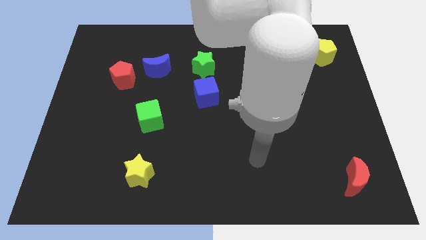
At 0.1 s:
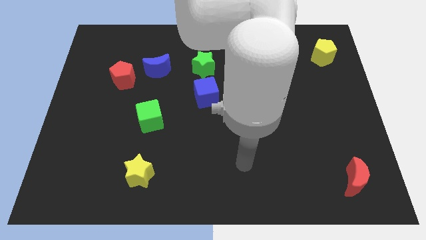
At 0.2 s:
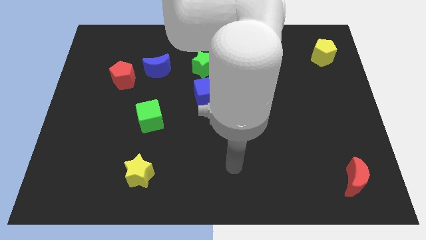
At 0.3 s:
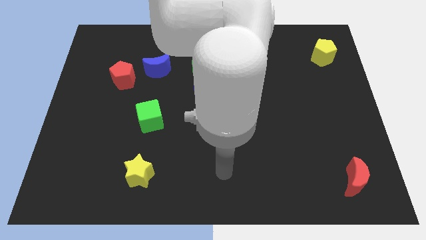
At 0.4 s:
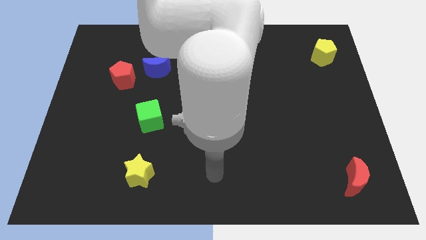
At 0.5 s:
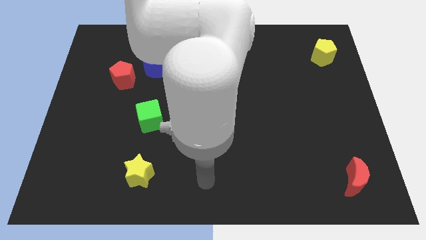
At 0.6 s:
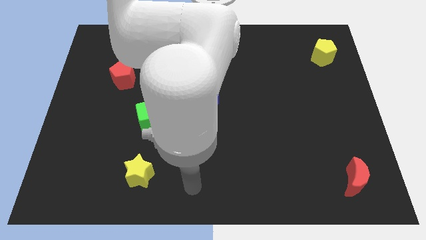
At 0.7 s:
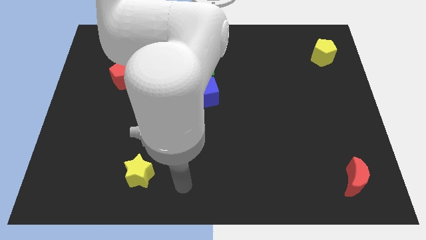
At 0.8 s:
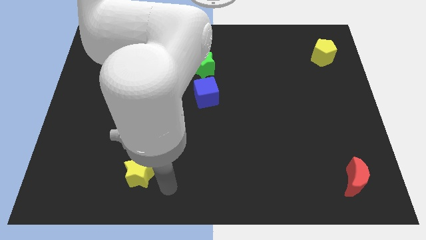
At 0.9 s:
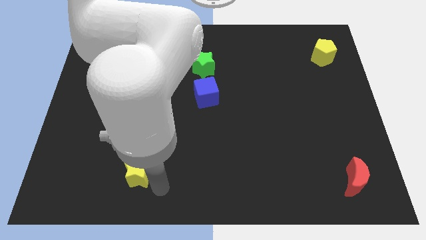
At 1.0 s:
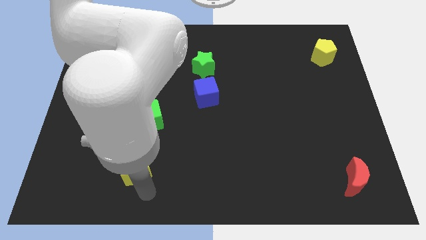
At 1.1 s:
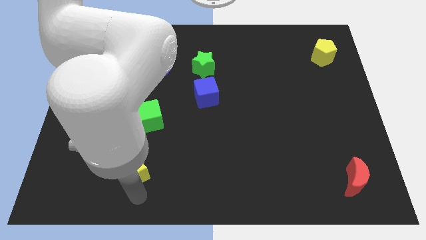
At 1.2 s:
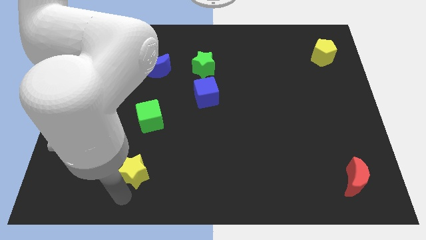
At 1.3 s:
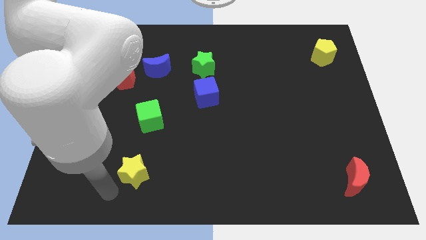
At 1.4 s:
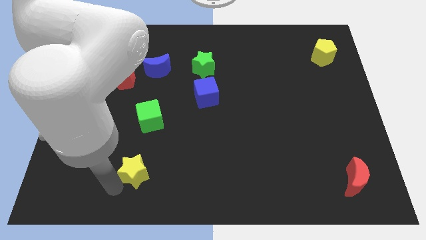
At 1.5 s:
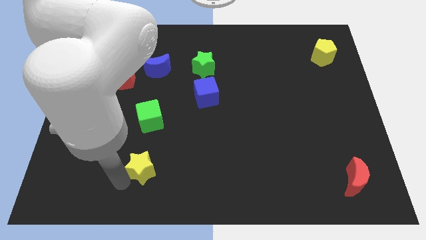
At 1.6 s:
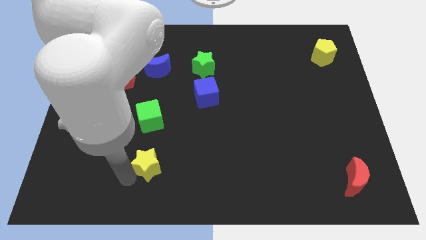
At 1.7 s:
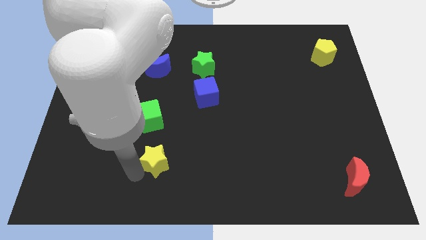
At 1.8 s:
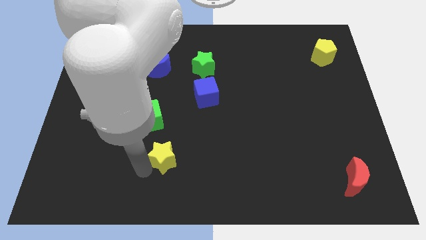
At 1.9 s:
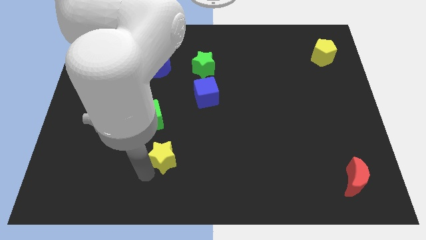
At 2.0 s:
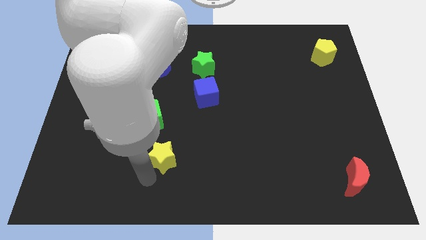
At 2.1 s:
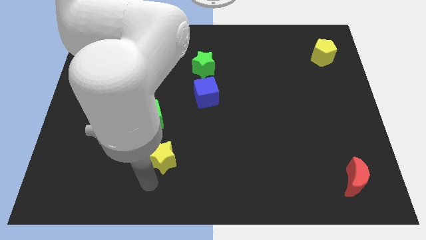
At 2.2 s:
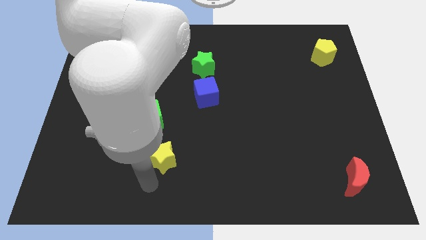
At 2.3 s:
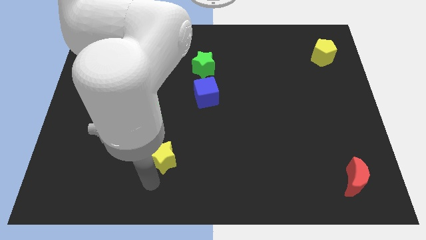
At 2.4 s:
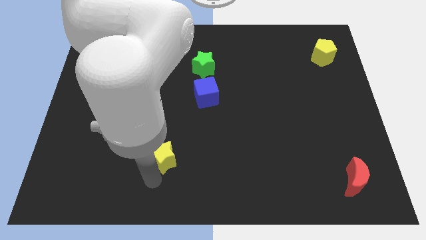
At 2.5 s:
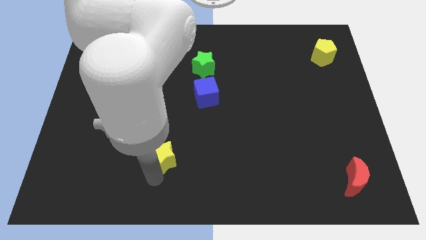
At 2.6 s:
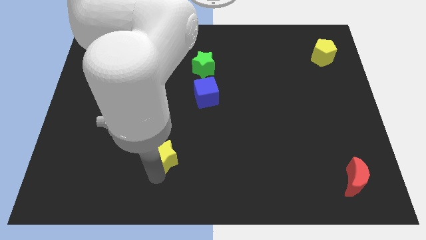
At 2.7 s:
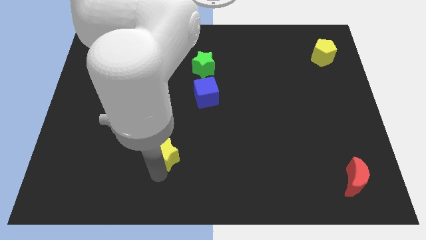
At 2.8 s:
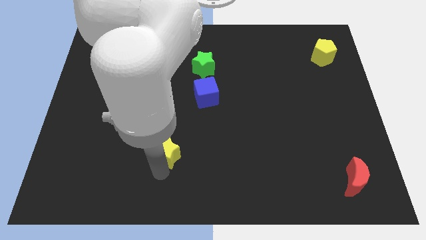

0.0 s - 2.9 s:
slightly move the yellow star diagonally upwards and to the right

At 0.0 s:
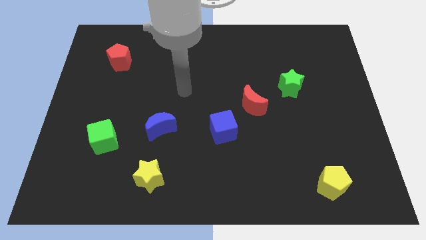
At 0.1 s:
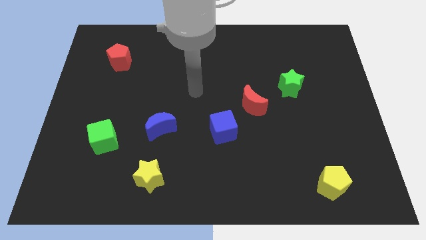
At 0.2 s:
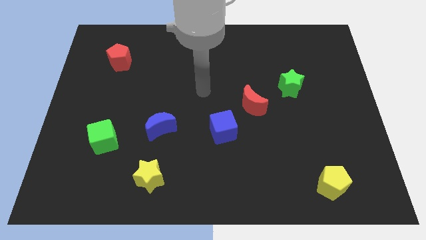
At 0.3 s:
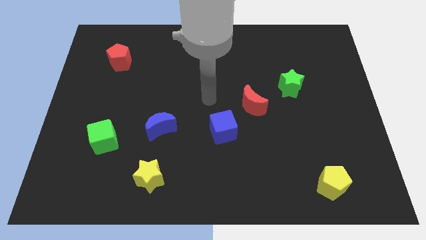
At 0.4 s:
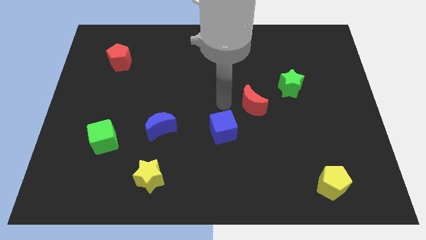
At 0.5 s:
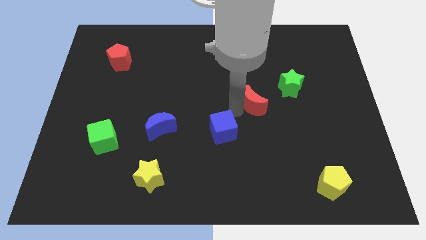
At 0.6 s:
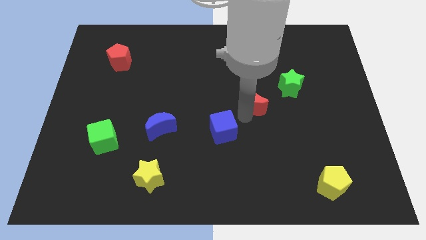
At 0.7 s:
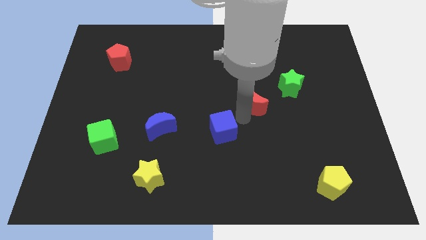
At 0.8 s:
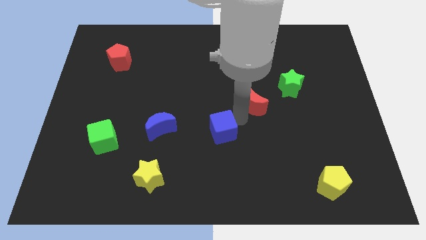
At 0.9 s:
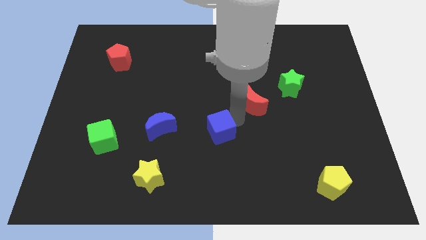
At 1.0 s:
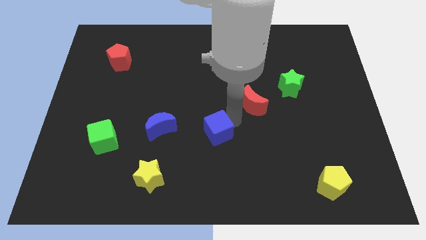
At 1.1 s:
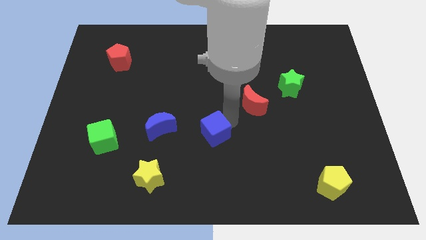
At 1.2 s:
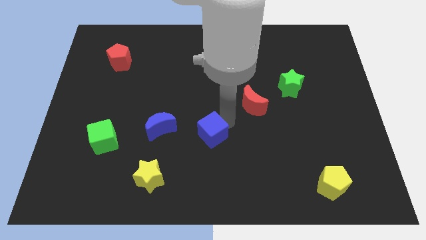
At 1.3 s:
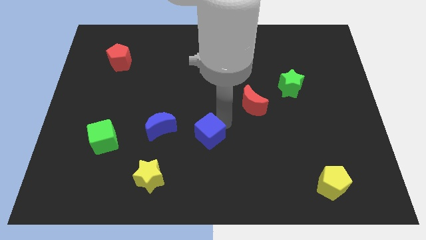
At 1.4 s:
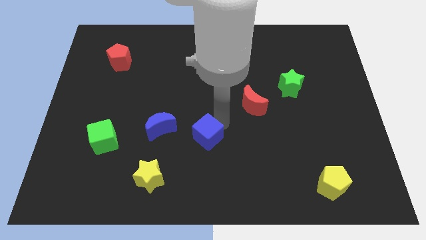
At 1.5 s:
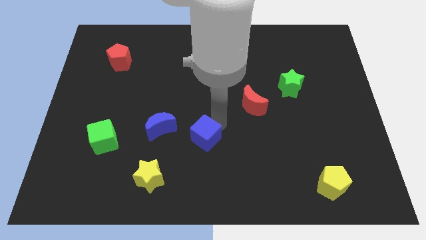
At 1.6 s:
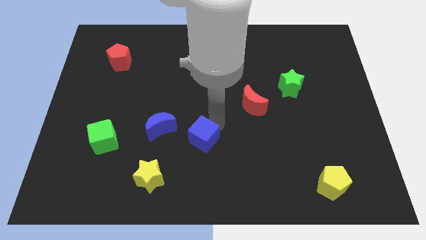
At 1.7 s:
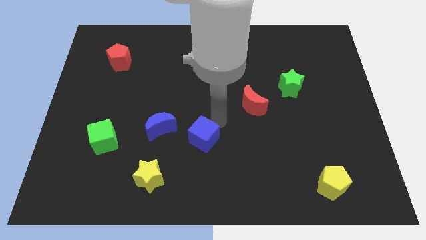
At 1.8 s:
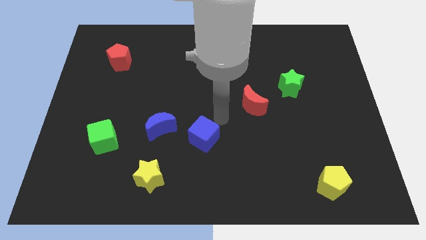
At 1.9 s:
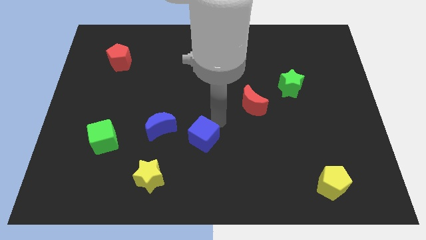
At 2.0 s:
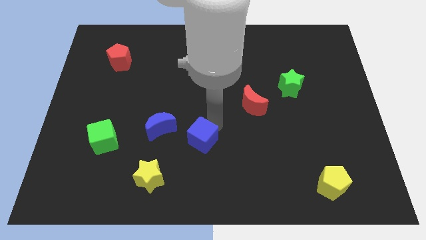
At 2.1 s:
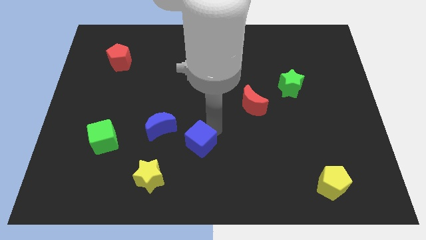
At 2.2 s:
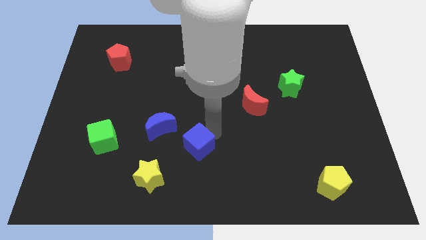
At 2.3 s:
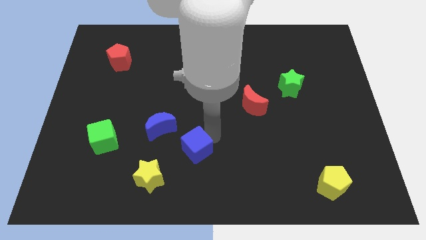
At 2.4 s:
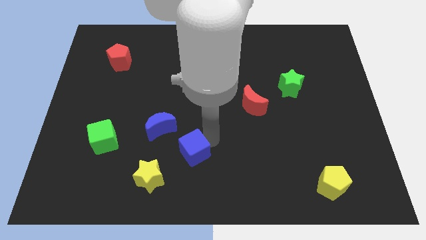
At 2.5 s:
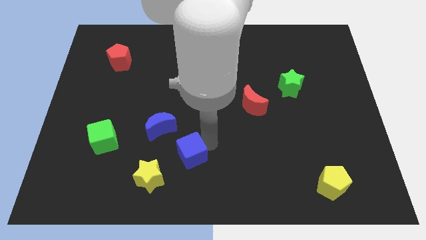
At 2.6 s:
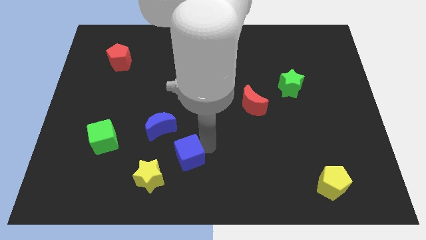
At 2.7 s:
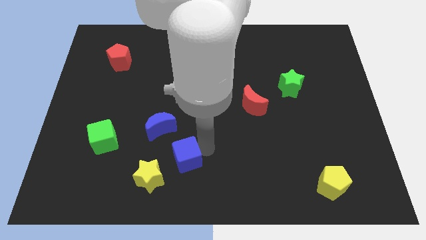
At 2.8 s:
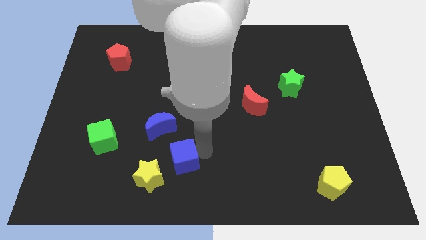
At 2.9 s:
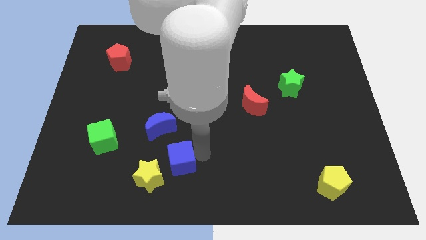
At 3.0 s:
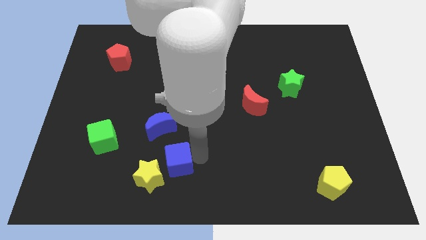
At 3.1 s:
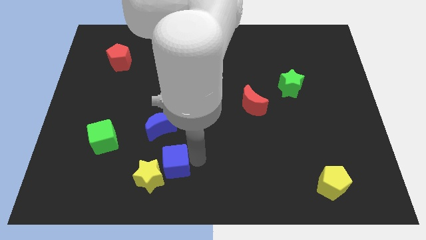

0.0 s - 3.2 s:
push the blue cube to the left somewhat

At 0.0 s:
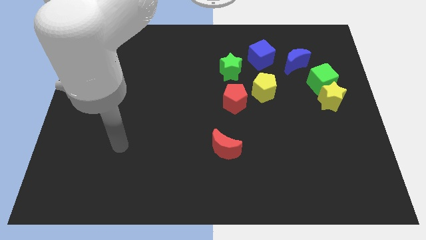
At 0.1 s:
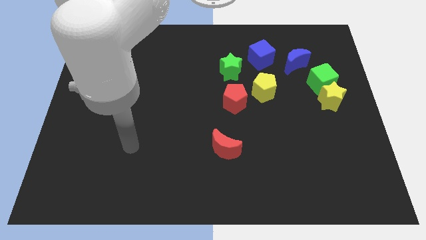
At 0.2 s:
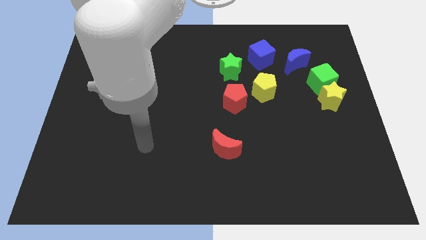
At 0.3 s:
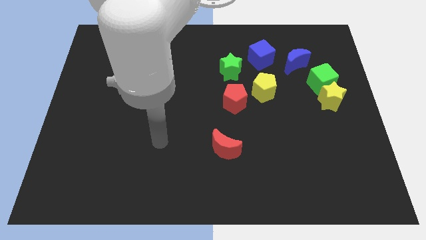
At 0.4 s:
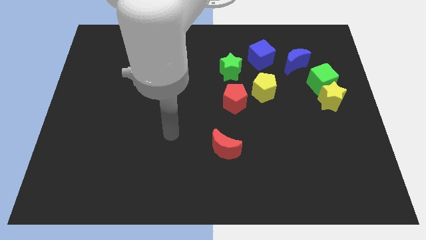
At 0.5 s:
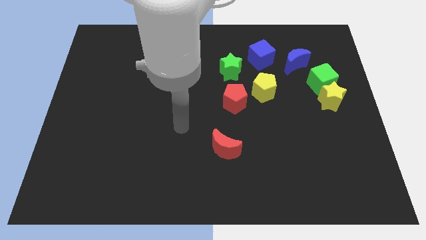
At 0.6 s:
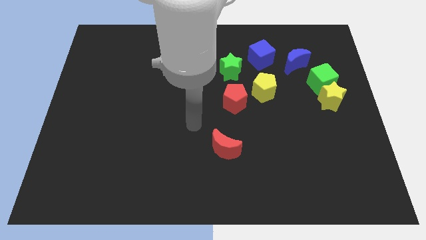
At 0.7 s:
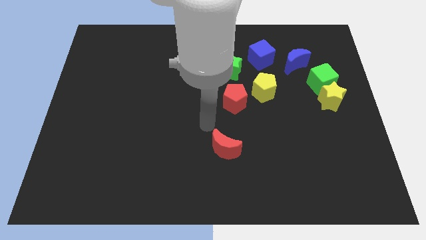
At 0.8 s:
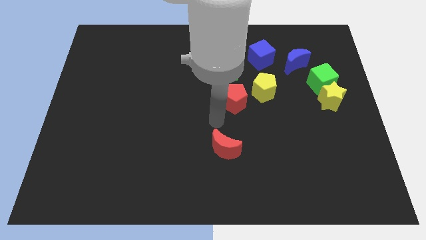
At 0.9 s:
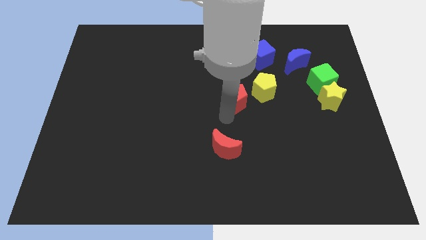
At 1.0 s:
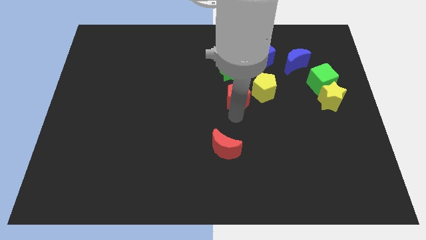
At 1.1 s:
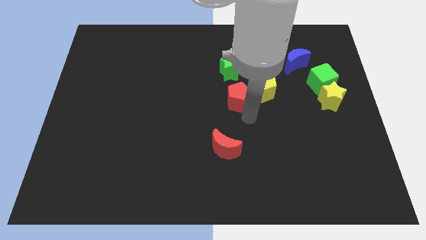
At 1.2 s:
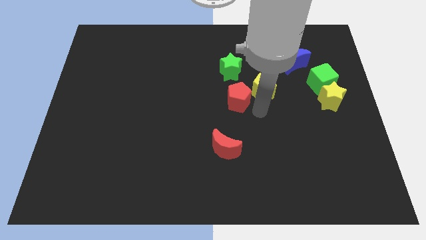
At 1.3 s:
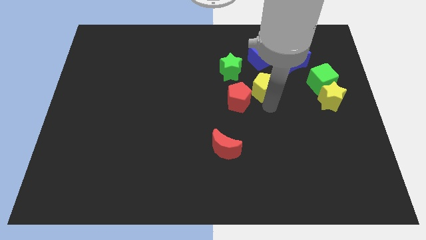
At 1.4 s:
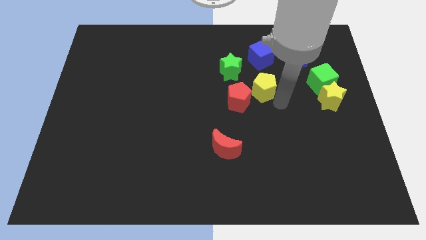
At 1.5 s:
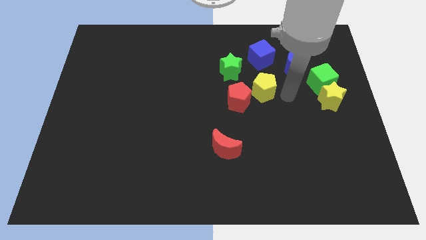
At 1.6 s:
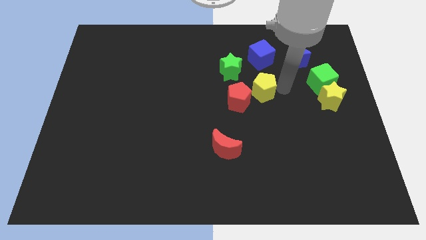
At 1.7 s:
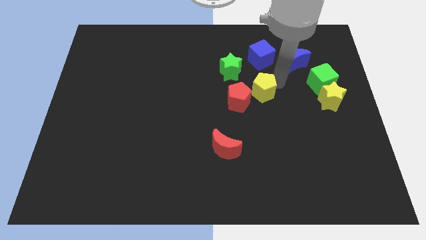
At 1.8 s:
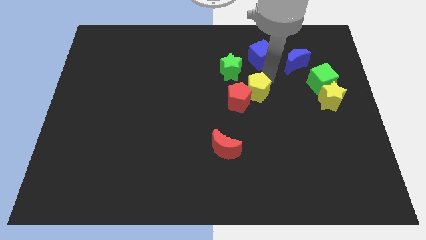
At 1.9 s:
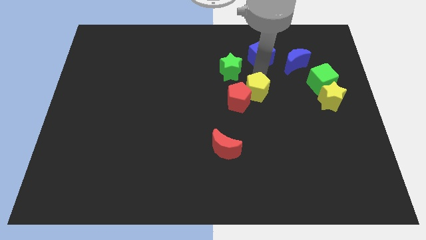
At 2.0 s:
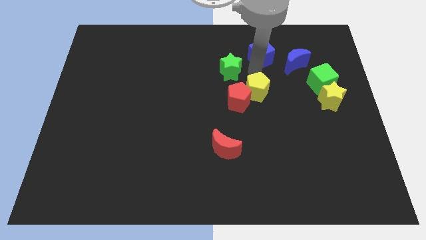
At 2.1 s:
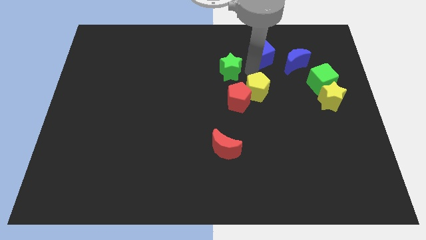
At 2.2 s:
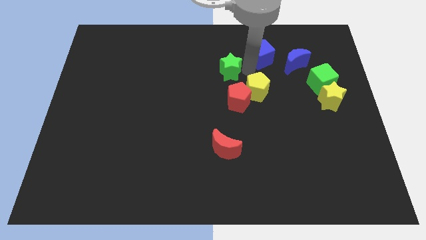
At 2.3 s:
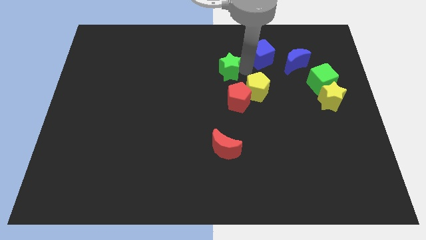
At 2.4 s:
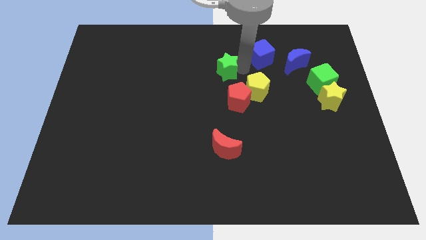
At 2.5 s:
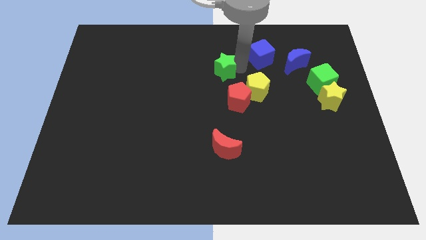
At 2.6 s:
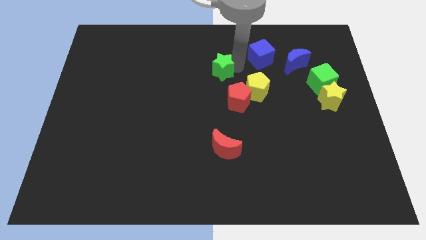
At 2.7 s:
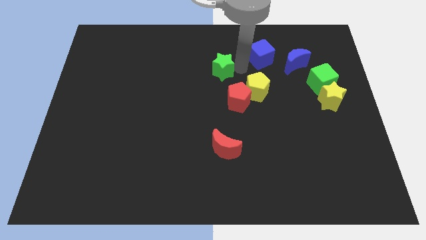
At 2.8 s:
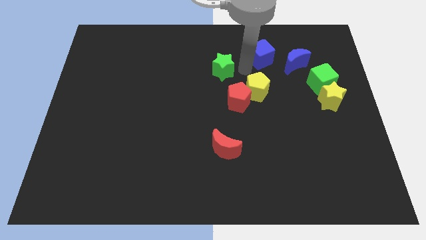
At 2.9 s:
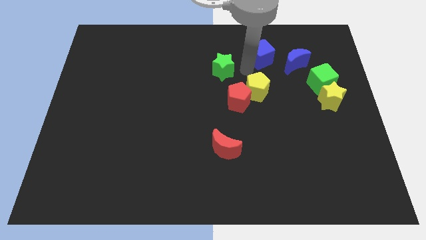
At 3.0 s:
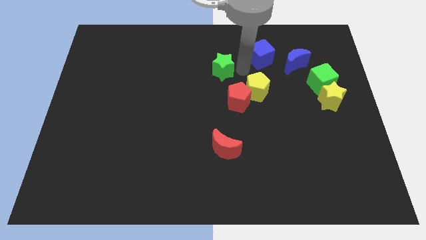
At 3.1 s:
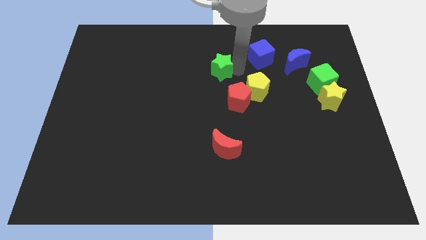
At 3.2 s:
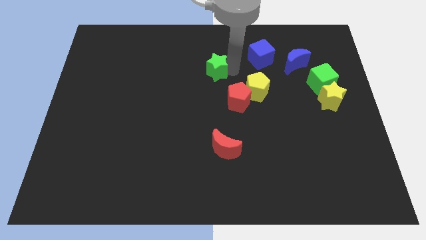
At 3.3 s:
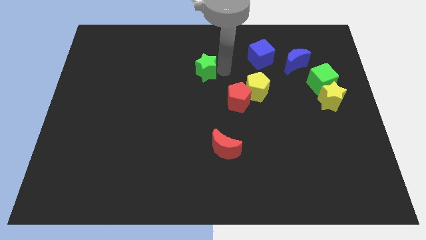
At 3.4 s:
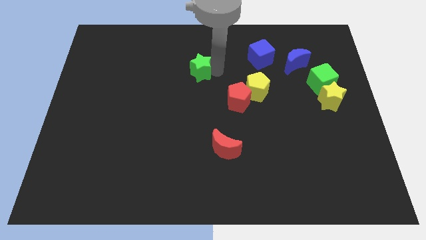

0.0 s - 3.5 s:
slightly move the green star to the left
